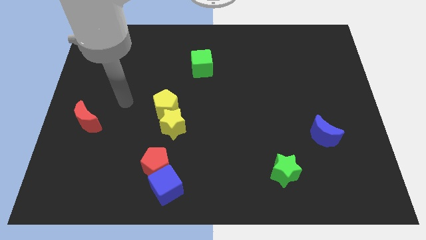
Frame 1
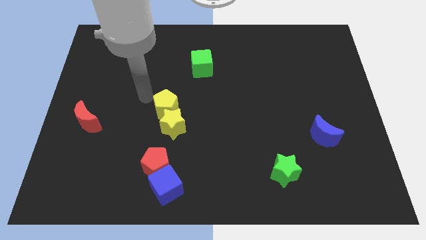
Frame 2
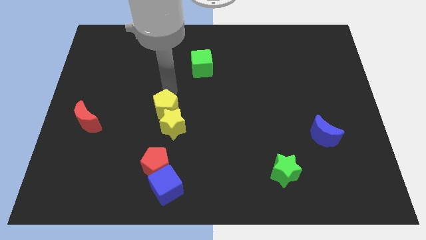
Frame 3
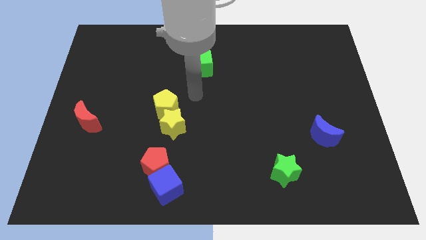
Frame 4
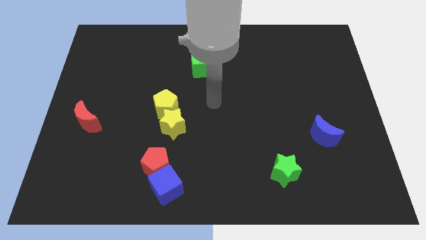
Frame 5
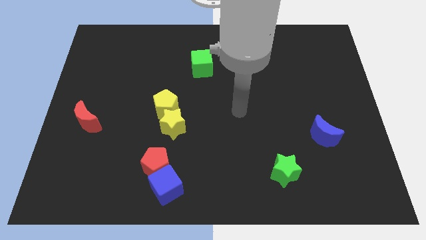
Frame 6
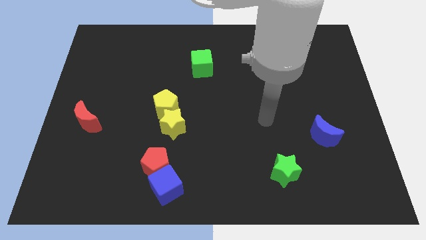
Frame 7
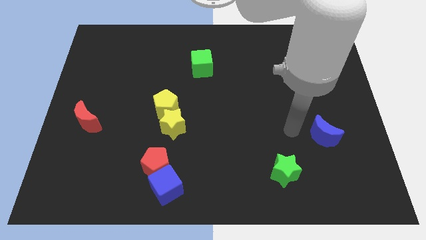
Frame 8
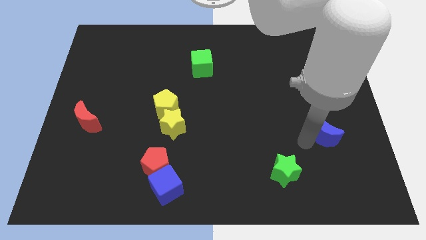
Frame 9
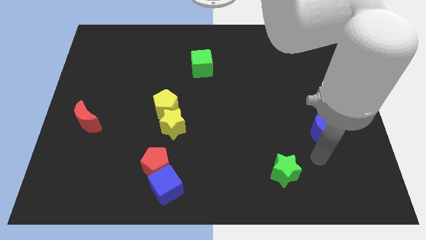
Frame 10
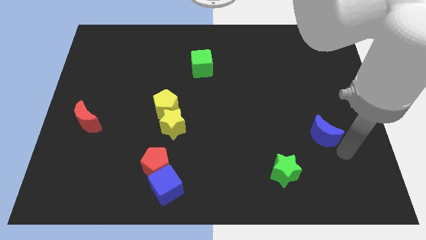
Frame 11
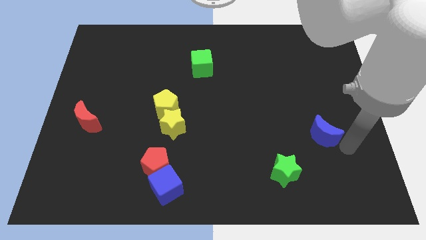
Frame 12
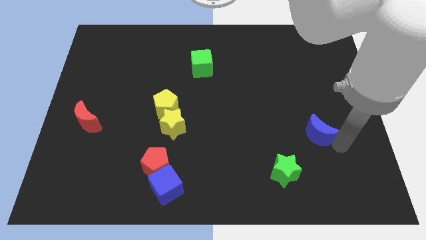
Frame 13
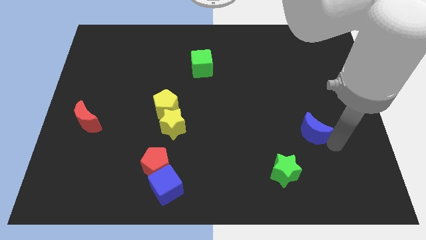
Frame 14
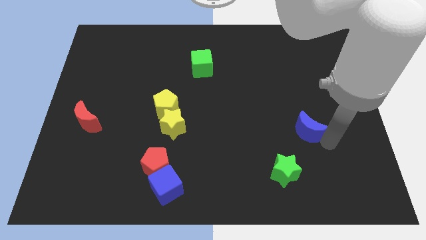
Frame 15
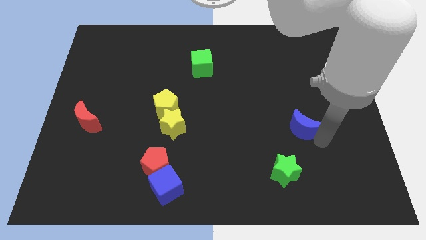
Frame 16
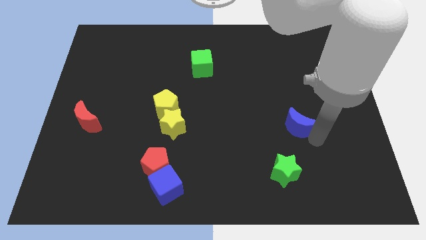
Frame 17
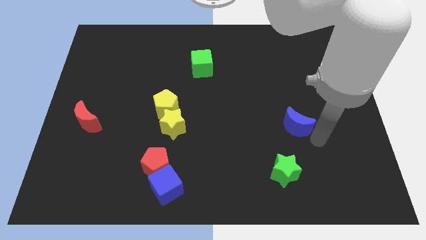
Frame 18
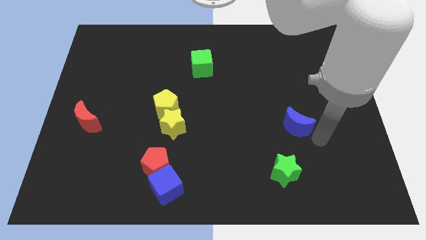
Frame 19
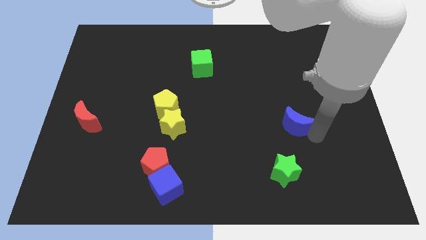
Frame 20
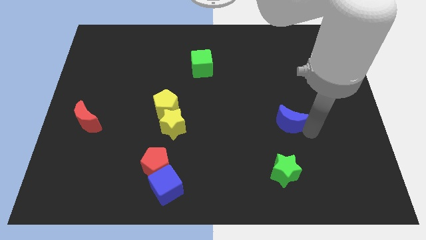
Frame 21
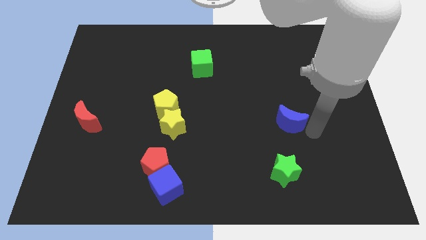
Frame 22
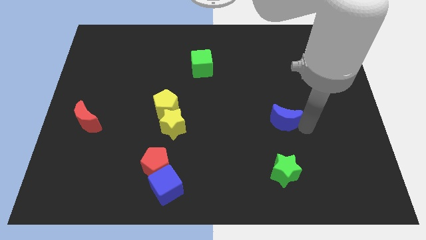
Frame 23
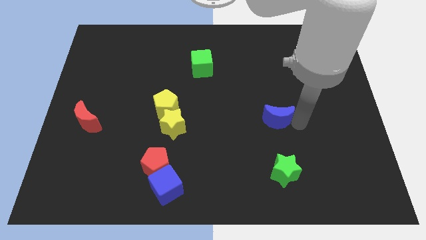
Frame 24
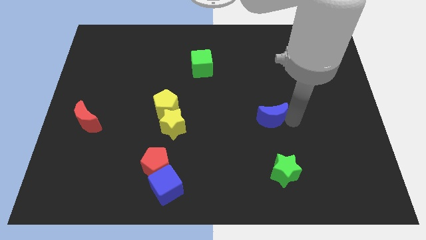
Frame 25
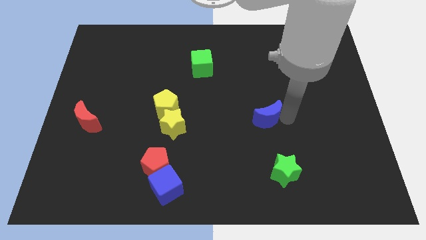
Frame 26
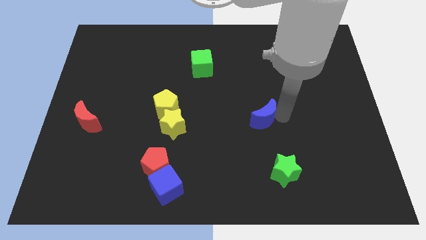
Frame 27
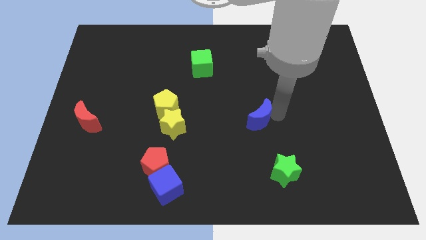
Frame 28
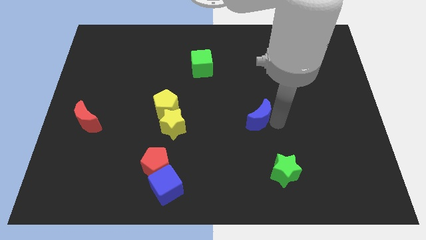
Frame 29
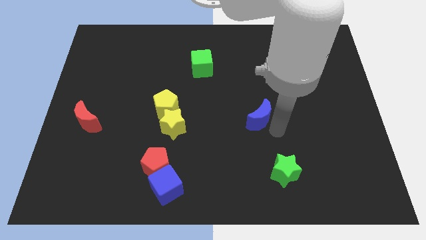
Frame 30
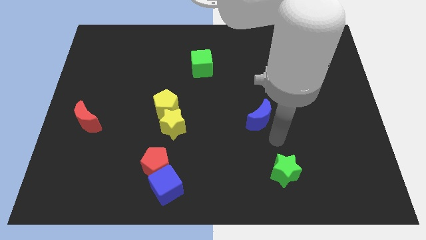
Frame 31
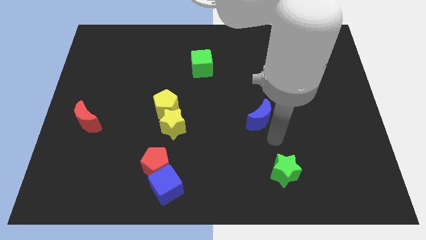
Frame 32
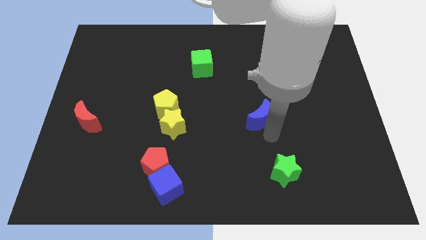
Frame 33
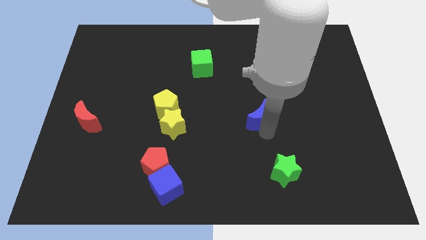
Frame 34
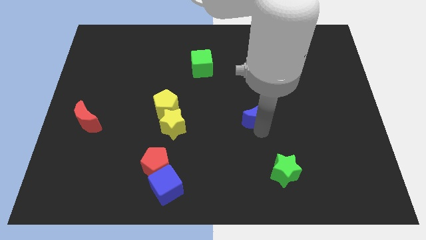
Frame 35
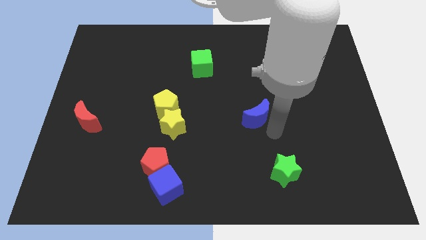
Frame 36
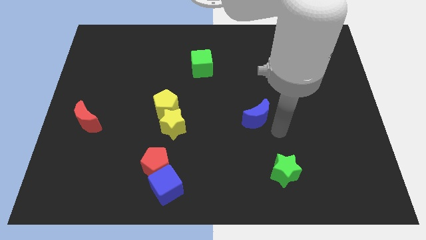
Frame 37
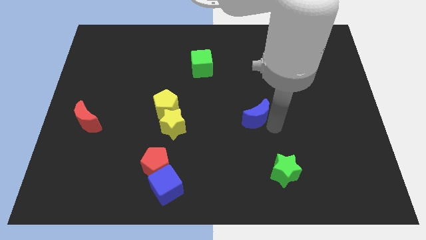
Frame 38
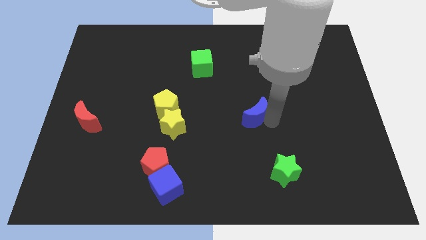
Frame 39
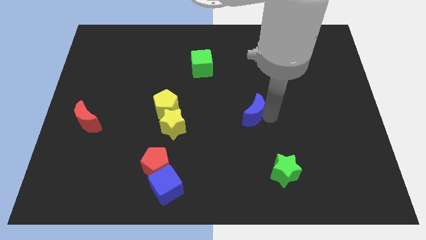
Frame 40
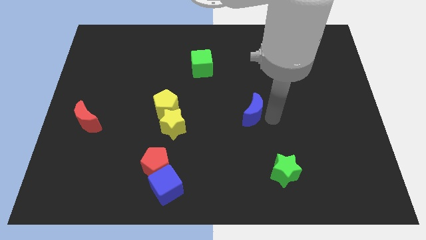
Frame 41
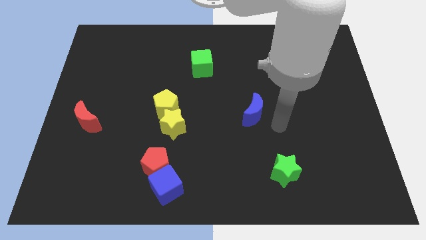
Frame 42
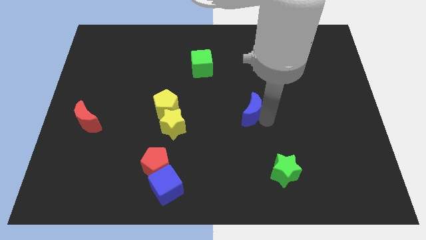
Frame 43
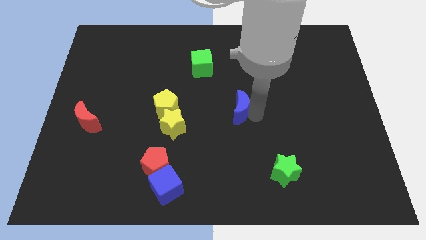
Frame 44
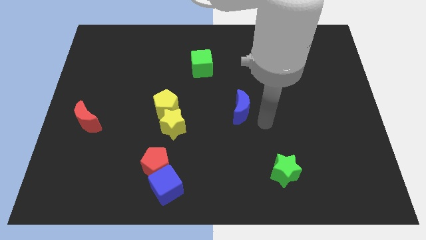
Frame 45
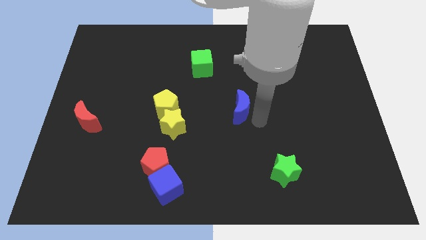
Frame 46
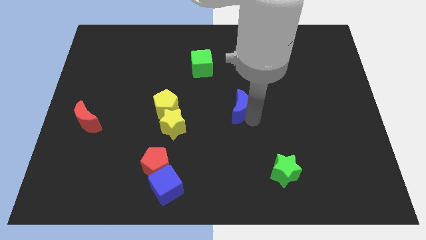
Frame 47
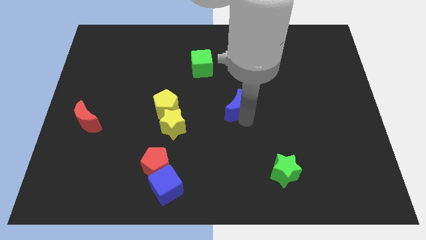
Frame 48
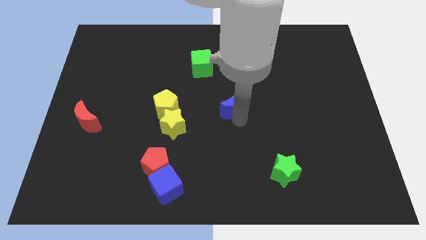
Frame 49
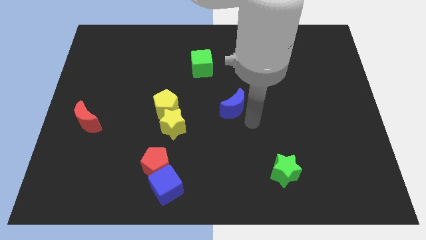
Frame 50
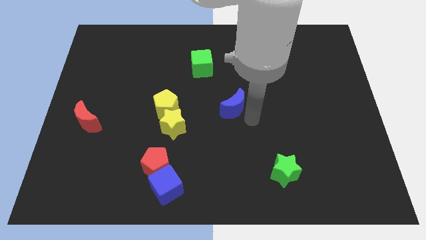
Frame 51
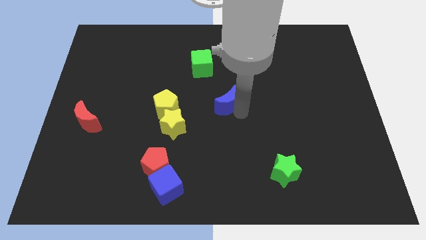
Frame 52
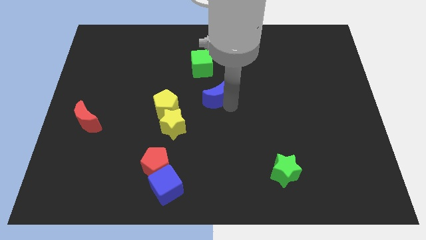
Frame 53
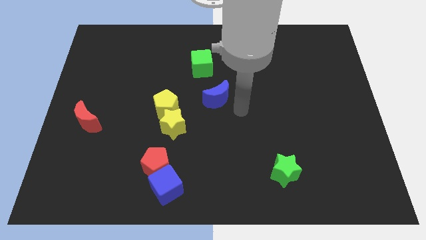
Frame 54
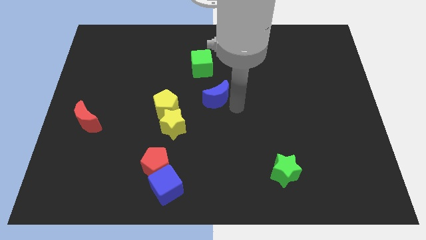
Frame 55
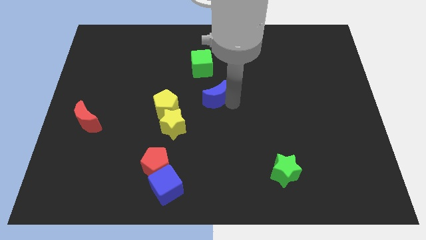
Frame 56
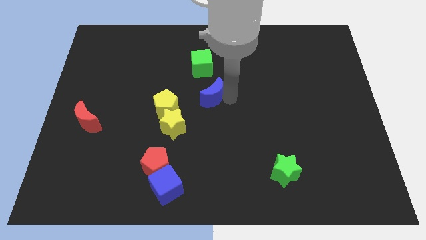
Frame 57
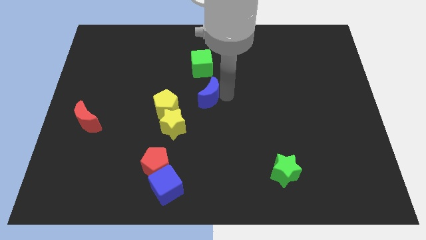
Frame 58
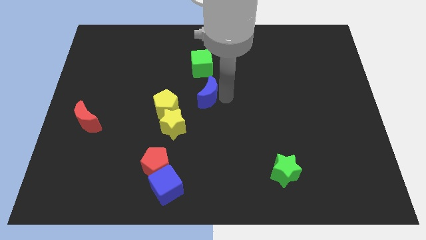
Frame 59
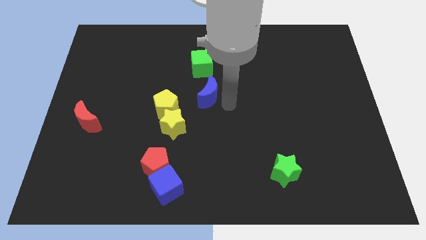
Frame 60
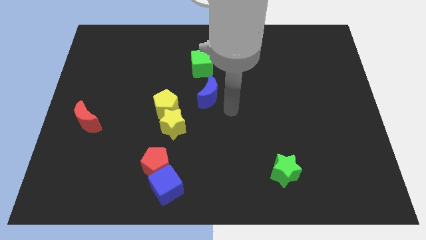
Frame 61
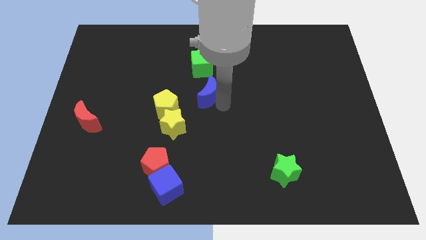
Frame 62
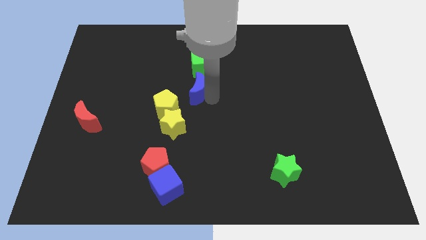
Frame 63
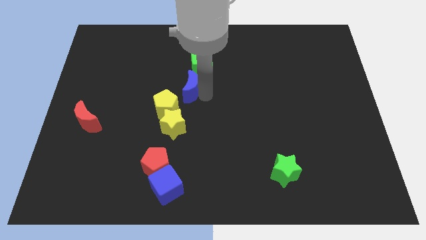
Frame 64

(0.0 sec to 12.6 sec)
push the blue moon diagonally down and to the left of the green cube
